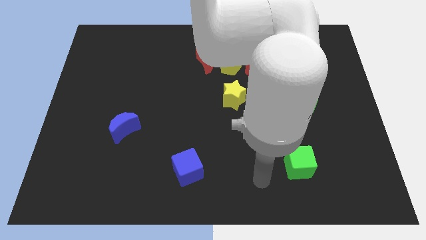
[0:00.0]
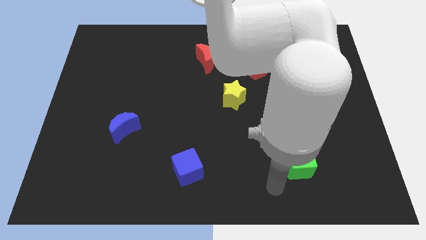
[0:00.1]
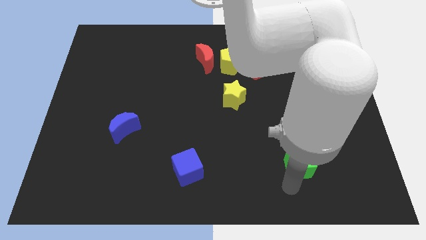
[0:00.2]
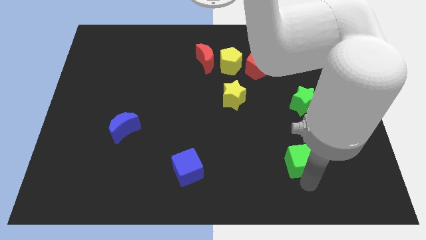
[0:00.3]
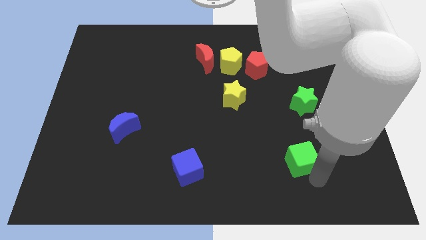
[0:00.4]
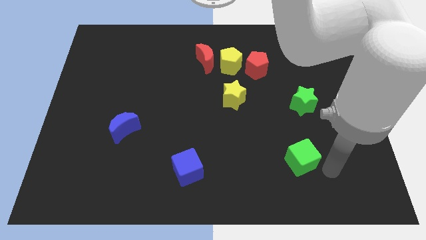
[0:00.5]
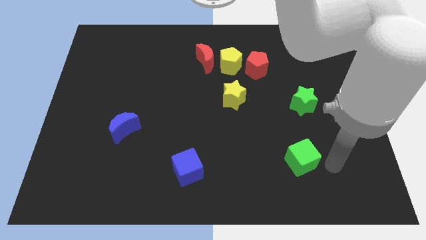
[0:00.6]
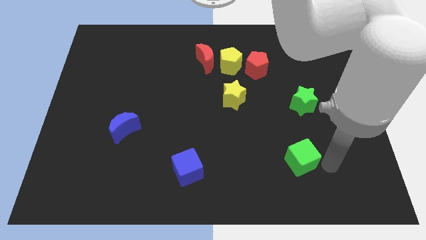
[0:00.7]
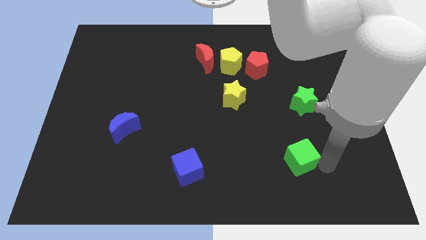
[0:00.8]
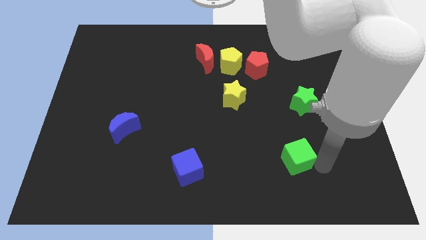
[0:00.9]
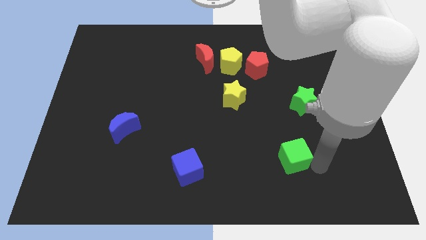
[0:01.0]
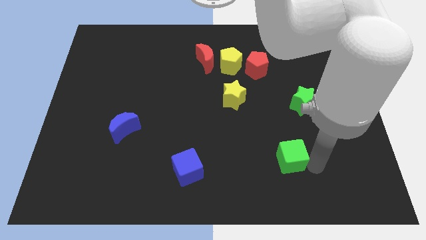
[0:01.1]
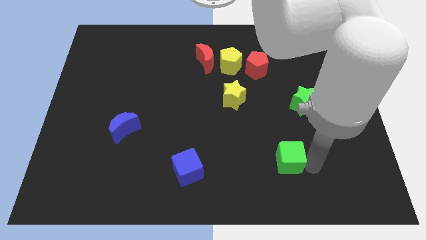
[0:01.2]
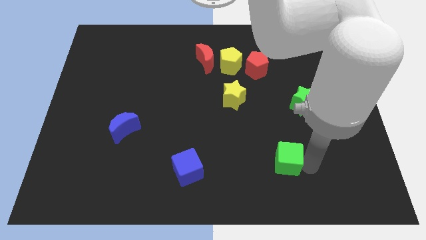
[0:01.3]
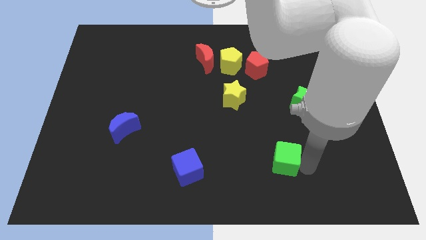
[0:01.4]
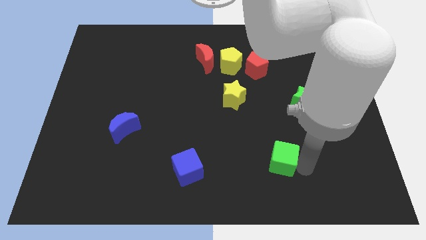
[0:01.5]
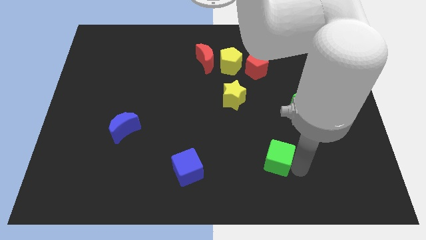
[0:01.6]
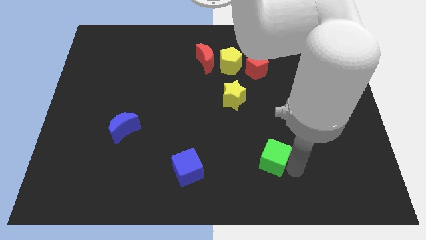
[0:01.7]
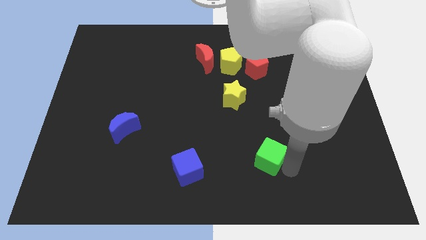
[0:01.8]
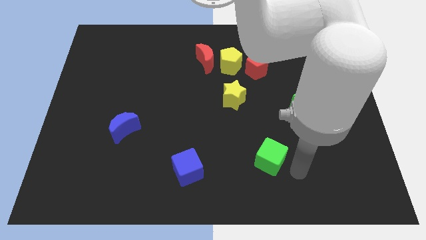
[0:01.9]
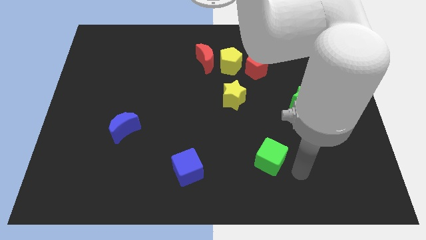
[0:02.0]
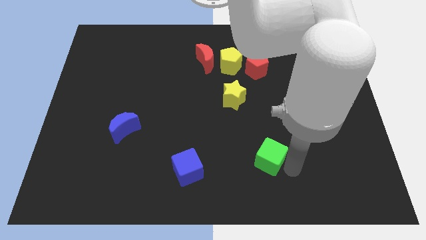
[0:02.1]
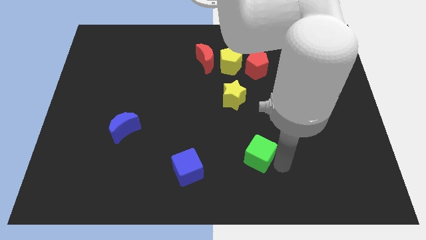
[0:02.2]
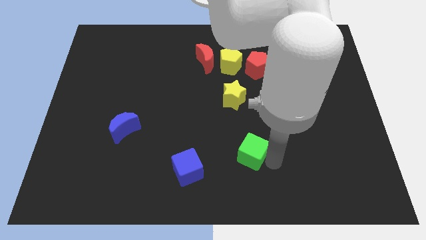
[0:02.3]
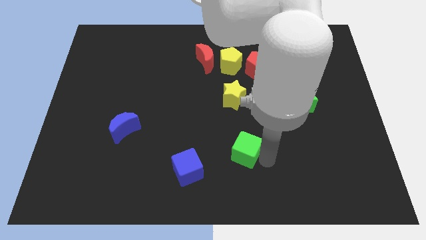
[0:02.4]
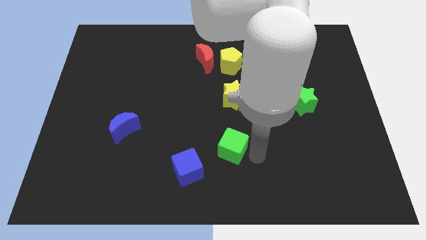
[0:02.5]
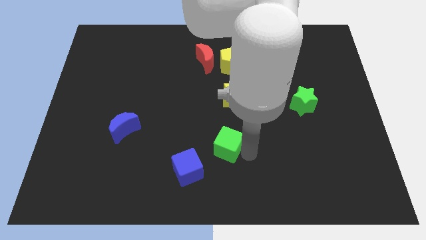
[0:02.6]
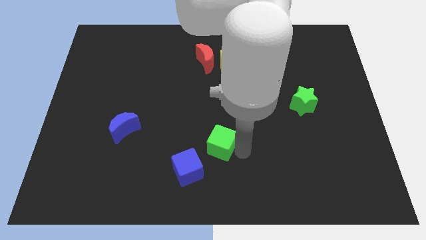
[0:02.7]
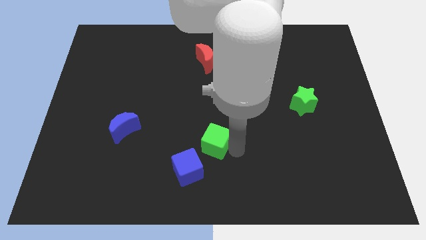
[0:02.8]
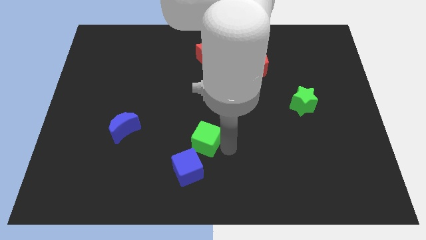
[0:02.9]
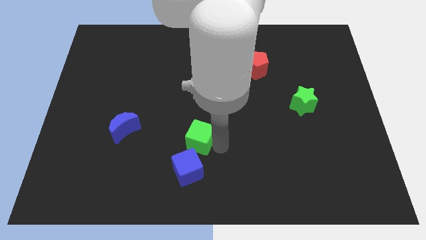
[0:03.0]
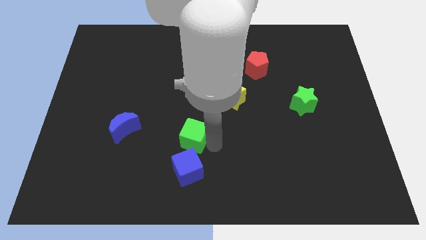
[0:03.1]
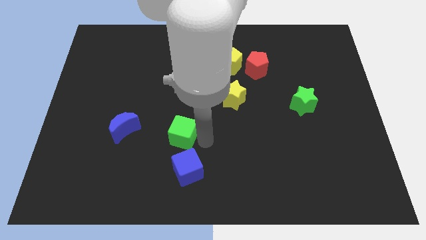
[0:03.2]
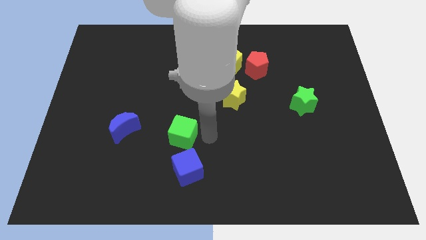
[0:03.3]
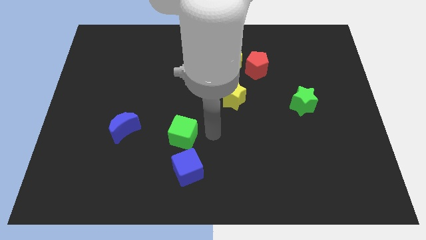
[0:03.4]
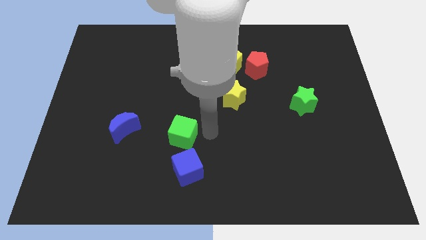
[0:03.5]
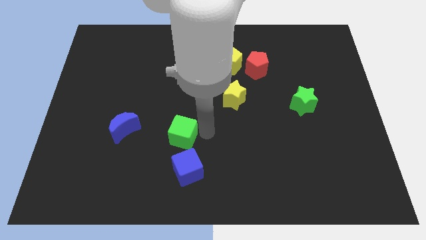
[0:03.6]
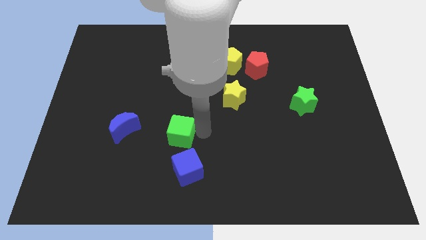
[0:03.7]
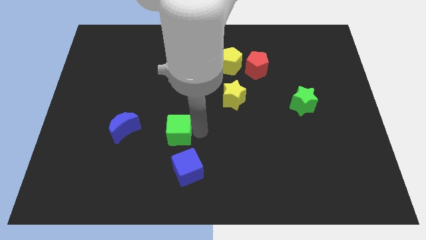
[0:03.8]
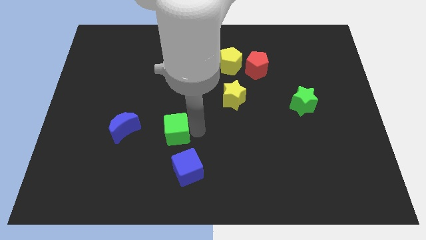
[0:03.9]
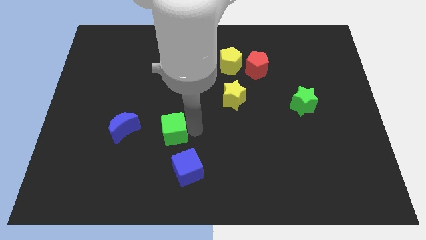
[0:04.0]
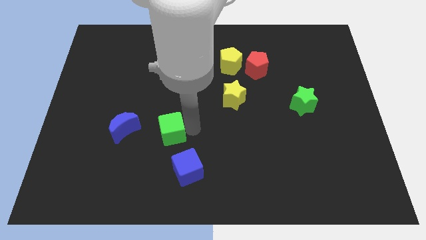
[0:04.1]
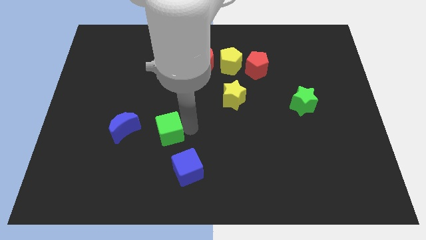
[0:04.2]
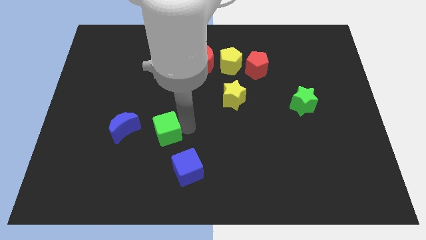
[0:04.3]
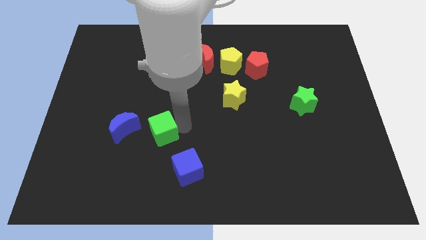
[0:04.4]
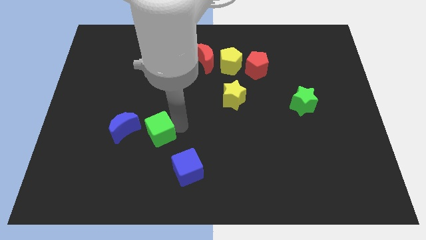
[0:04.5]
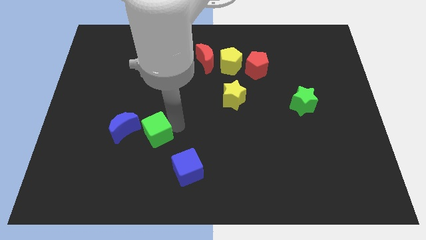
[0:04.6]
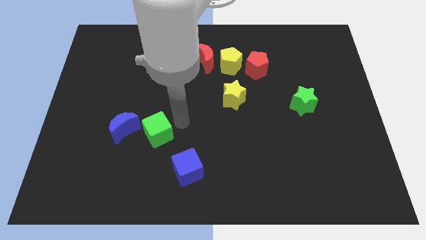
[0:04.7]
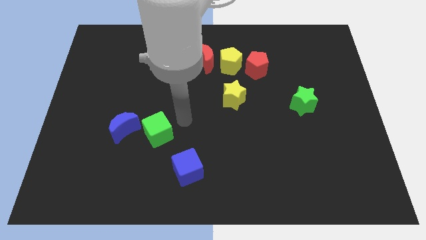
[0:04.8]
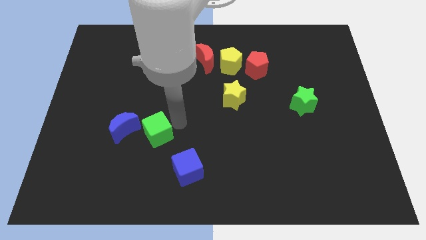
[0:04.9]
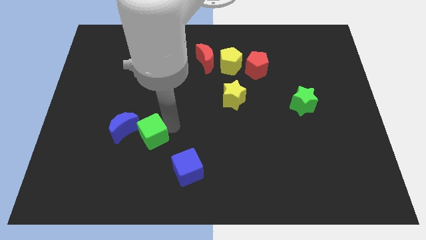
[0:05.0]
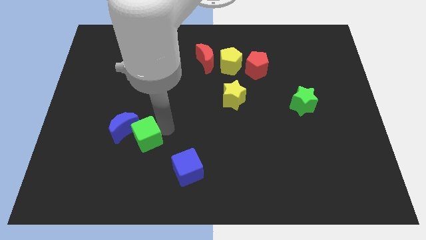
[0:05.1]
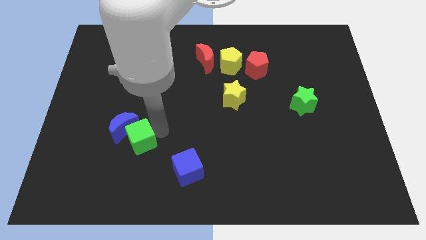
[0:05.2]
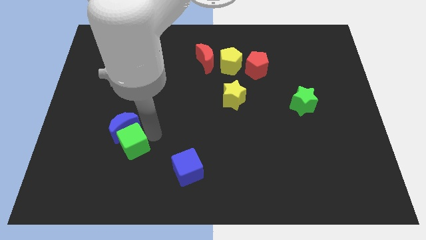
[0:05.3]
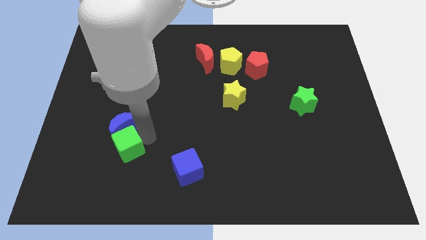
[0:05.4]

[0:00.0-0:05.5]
slide the green cube diagonally down and to the left of the blue moon

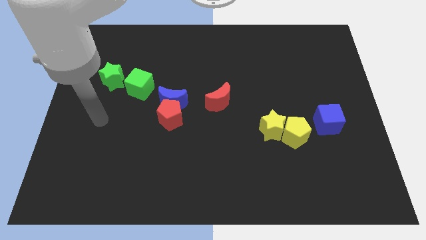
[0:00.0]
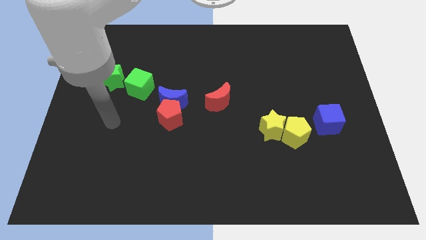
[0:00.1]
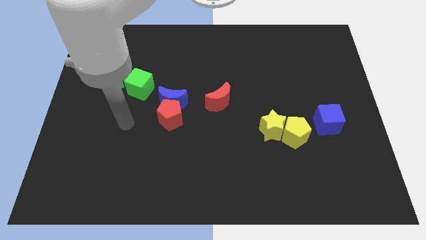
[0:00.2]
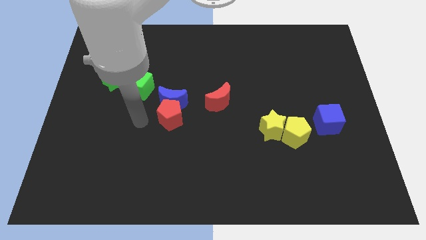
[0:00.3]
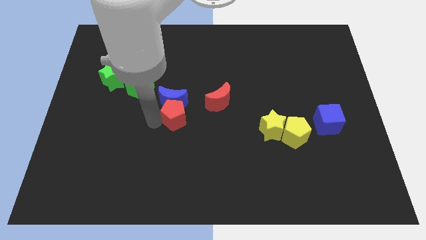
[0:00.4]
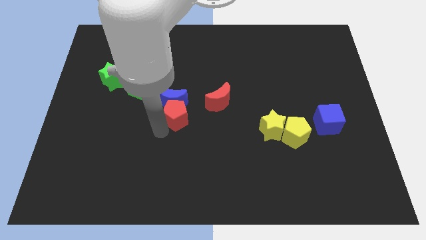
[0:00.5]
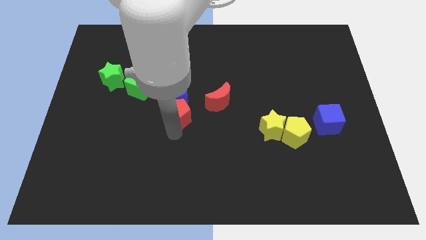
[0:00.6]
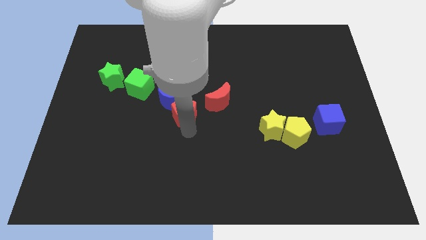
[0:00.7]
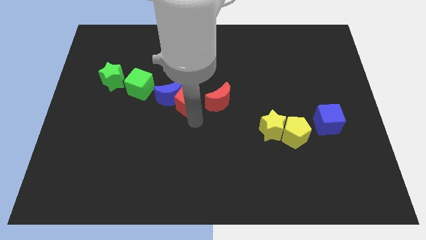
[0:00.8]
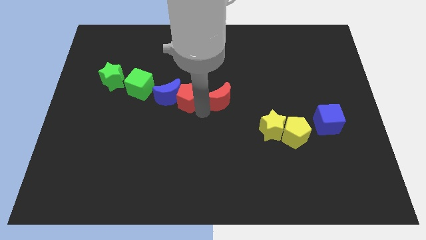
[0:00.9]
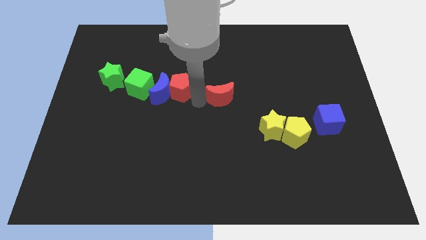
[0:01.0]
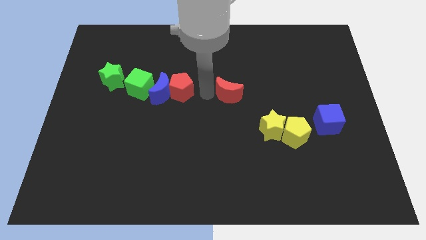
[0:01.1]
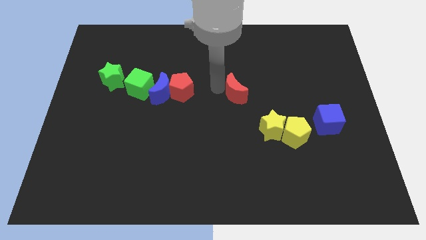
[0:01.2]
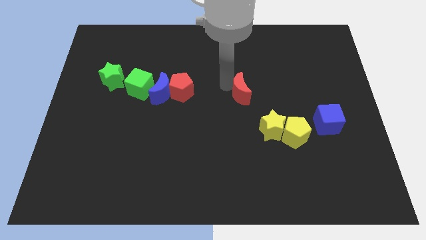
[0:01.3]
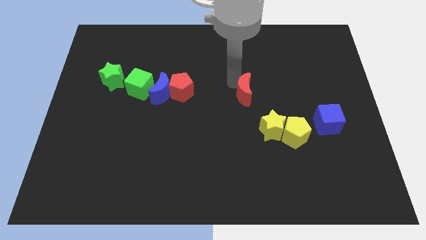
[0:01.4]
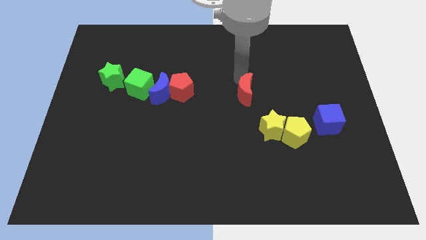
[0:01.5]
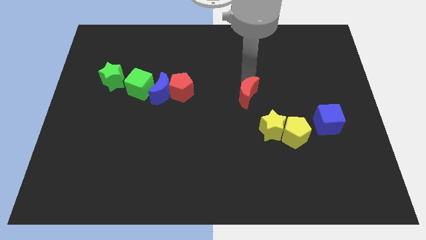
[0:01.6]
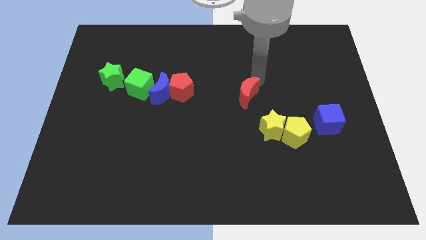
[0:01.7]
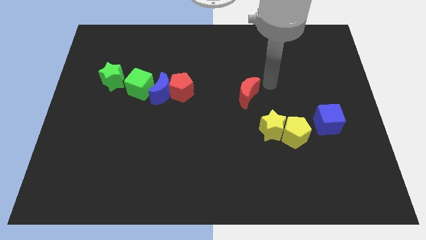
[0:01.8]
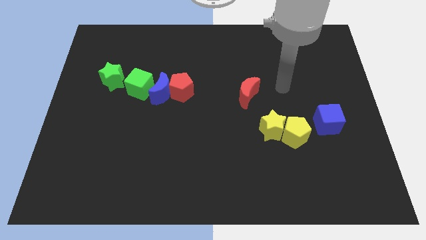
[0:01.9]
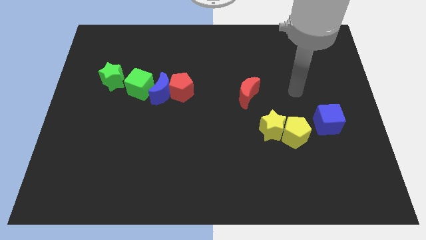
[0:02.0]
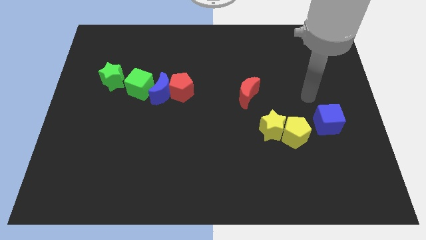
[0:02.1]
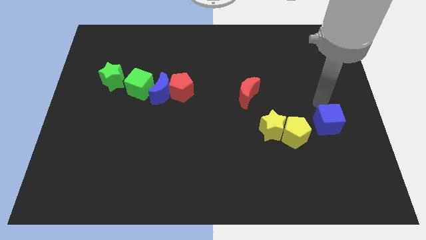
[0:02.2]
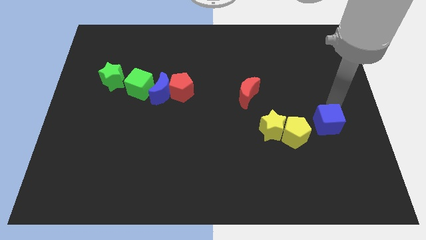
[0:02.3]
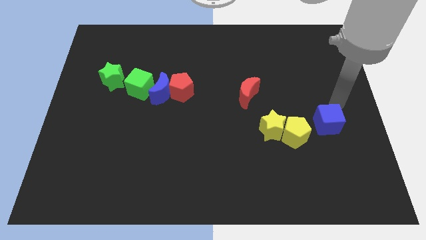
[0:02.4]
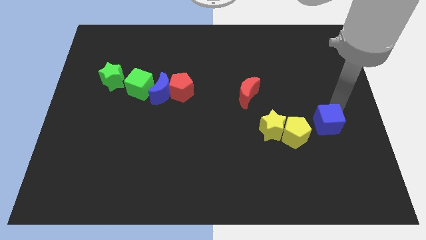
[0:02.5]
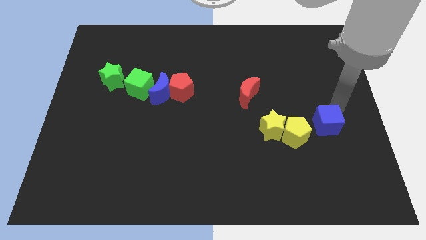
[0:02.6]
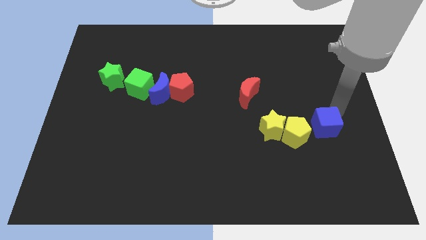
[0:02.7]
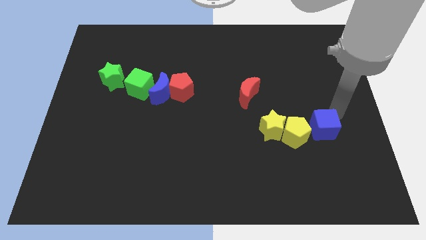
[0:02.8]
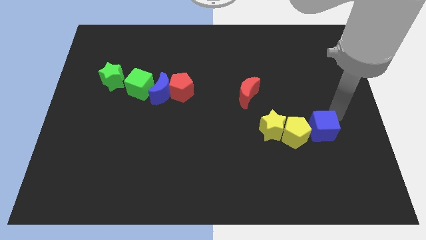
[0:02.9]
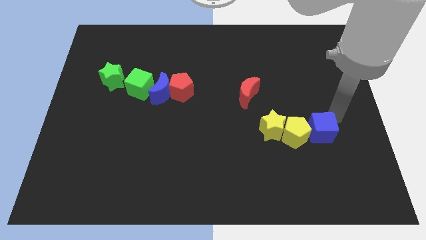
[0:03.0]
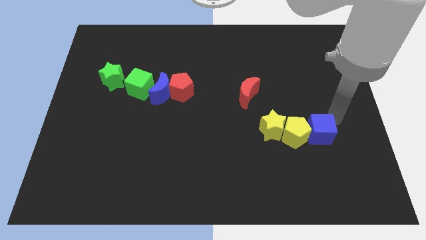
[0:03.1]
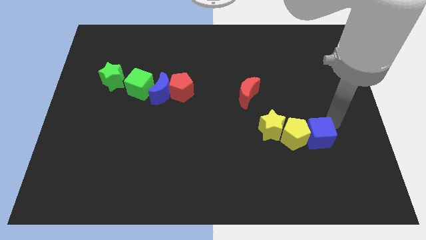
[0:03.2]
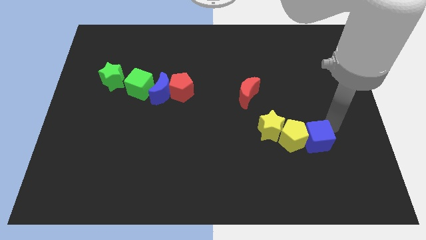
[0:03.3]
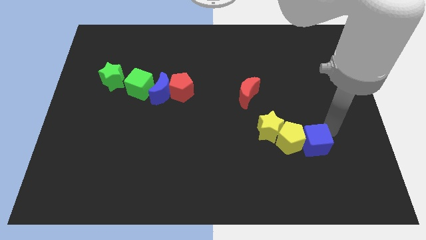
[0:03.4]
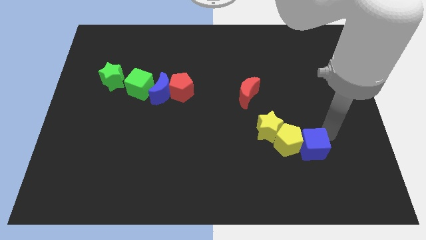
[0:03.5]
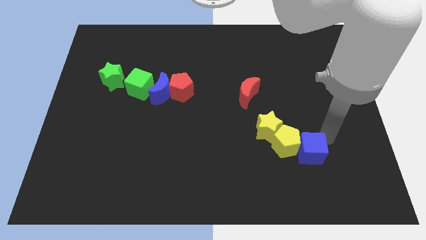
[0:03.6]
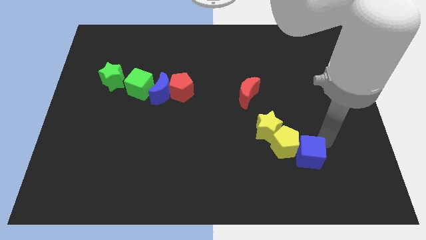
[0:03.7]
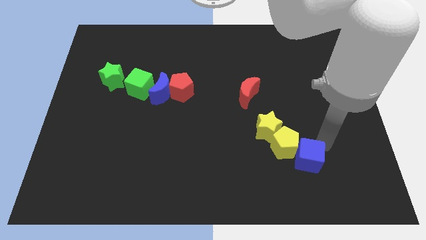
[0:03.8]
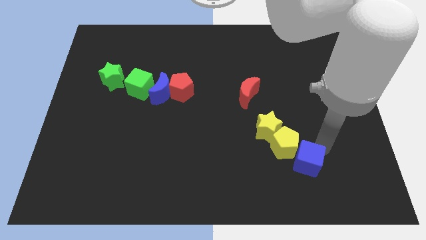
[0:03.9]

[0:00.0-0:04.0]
slide the blue cube below the yellow pentagon
